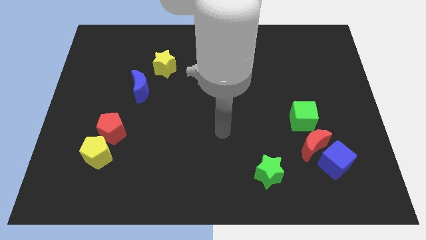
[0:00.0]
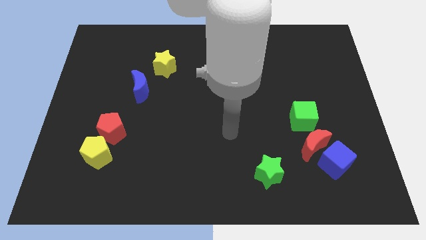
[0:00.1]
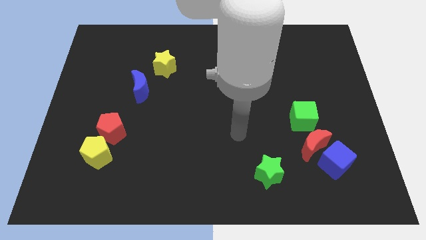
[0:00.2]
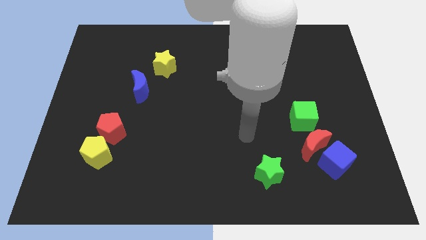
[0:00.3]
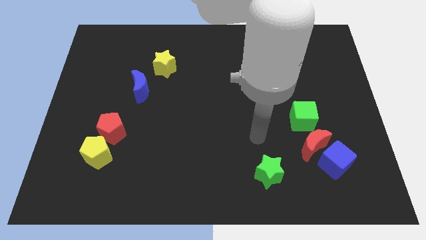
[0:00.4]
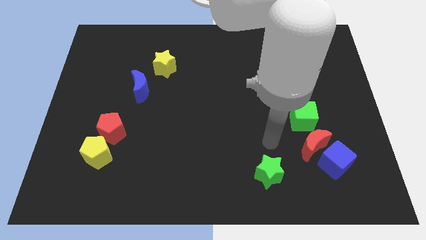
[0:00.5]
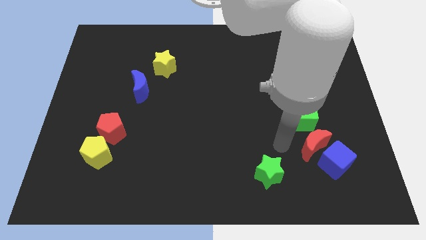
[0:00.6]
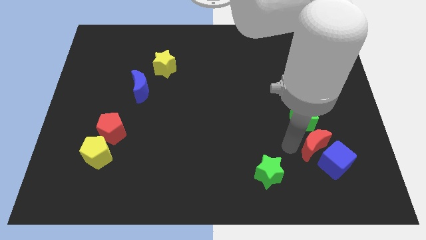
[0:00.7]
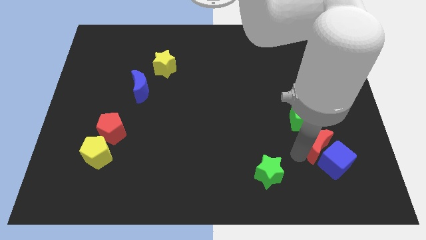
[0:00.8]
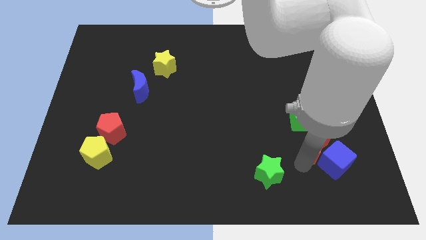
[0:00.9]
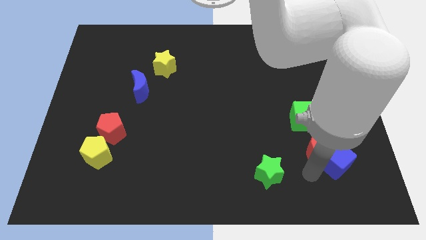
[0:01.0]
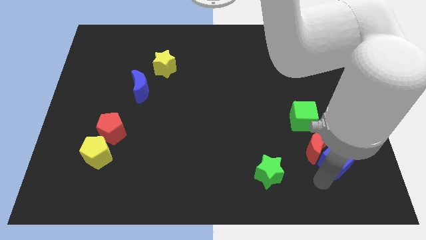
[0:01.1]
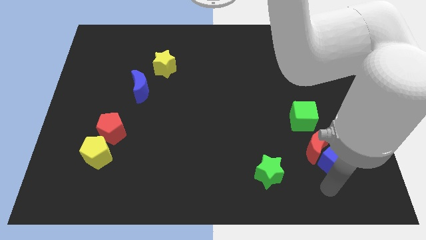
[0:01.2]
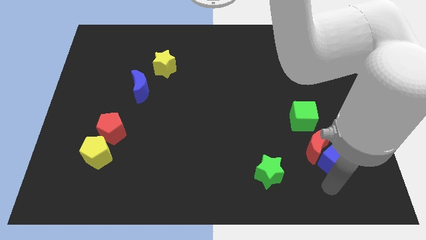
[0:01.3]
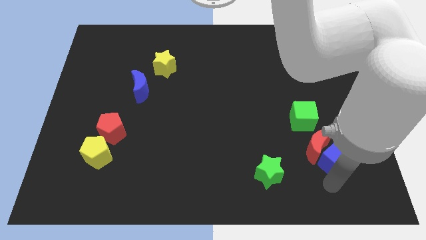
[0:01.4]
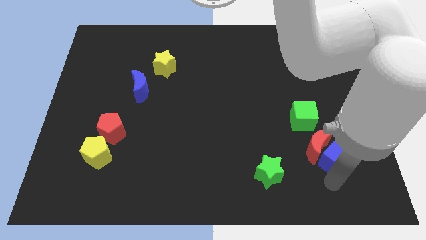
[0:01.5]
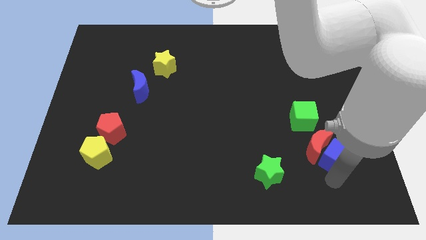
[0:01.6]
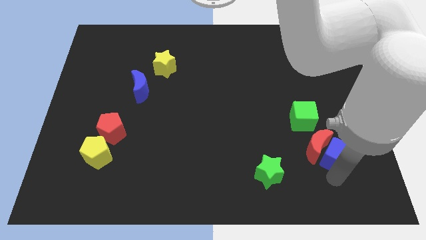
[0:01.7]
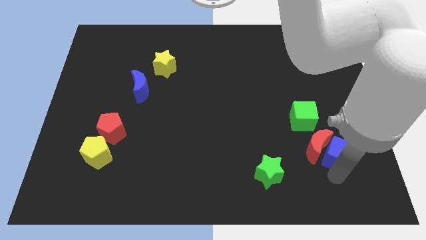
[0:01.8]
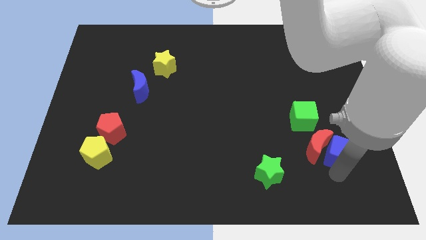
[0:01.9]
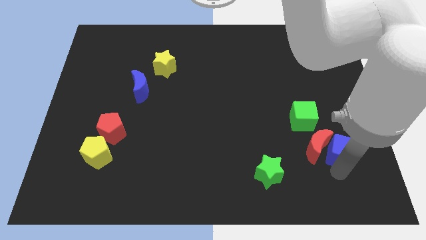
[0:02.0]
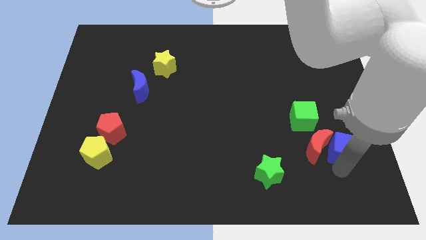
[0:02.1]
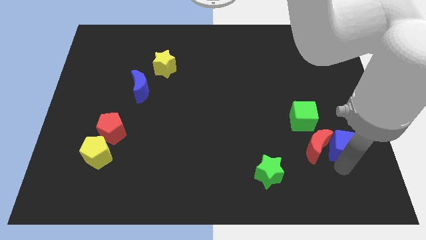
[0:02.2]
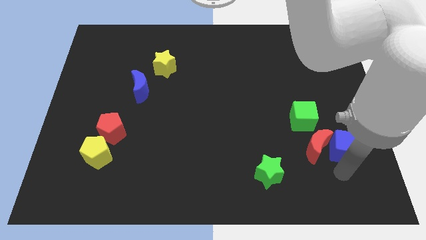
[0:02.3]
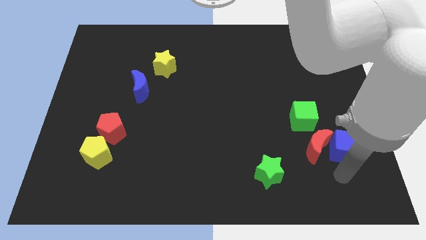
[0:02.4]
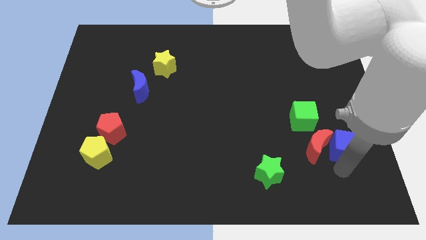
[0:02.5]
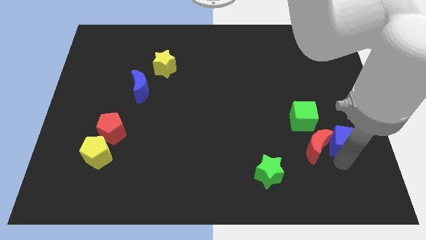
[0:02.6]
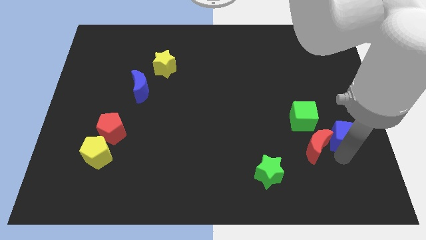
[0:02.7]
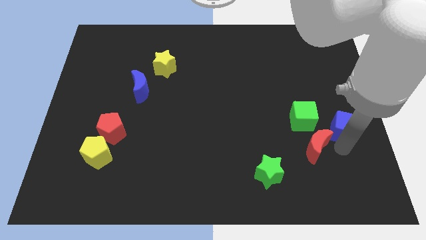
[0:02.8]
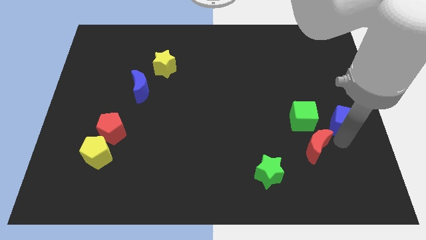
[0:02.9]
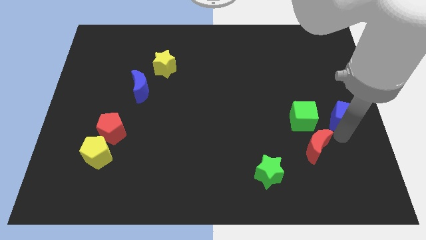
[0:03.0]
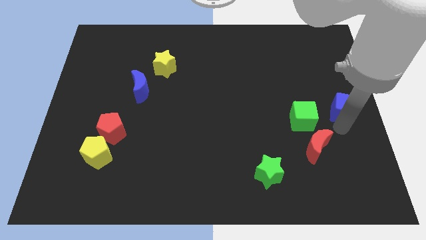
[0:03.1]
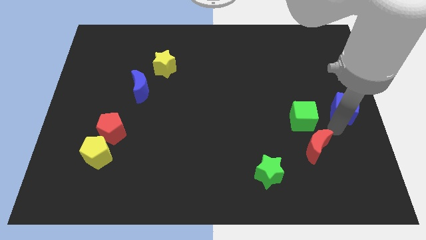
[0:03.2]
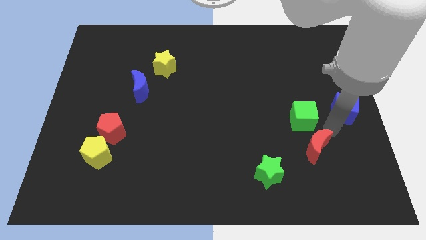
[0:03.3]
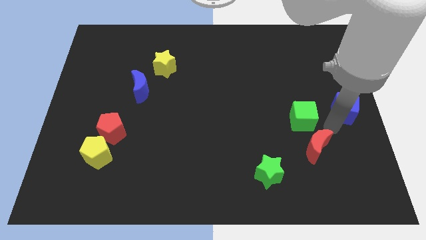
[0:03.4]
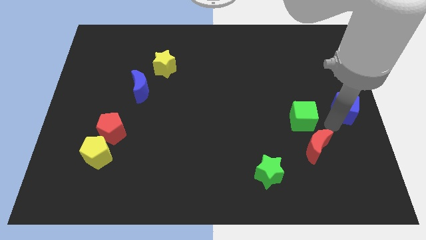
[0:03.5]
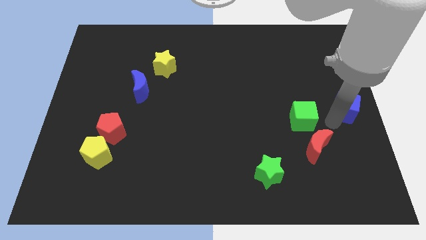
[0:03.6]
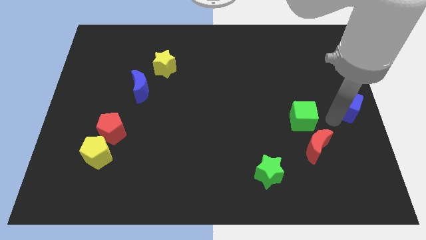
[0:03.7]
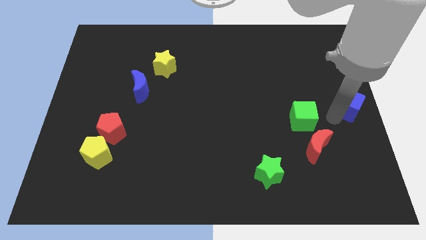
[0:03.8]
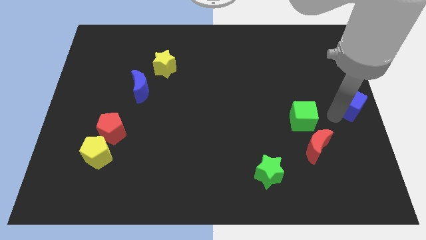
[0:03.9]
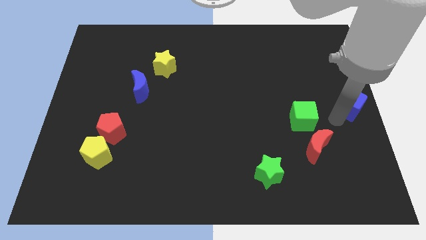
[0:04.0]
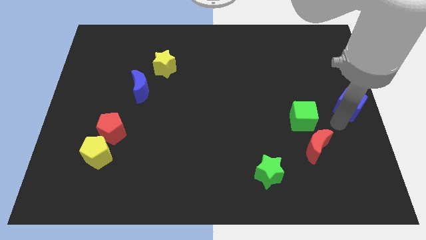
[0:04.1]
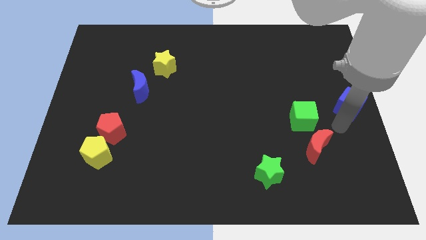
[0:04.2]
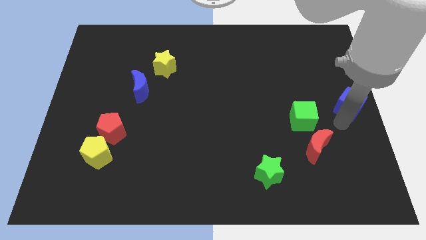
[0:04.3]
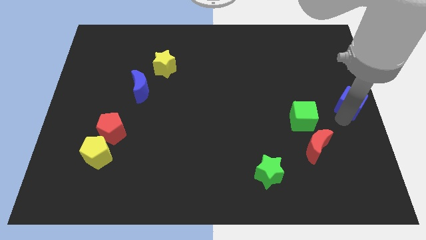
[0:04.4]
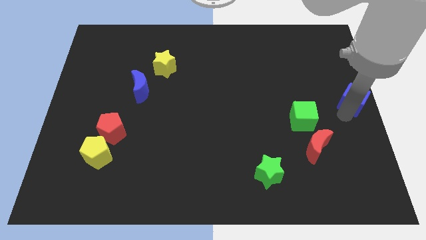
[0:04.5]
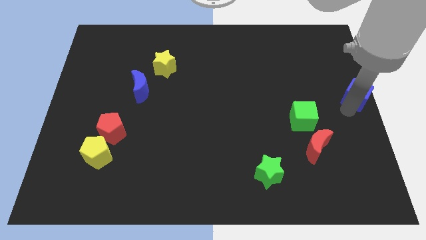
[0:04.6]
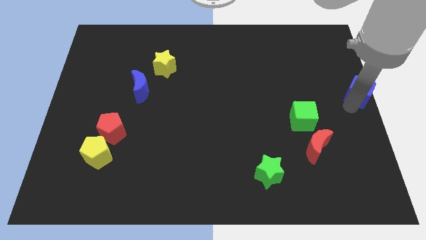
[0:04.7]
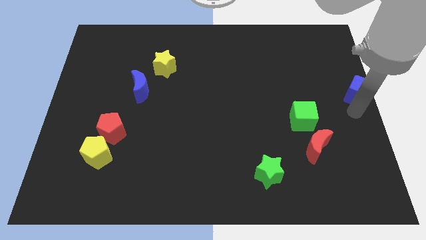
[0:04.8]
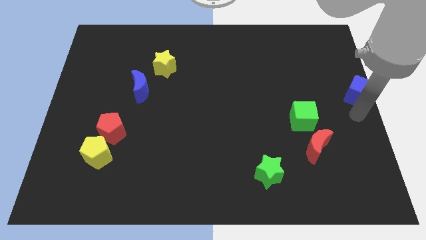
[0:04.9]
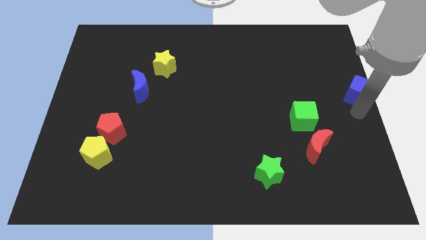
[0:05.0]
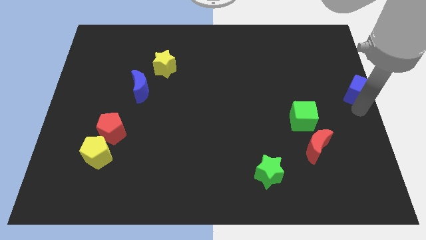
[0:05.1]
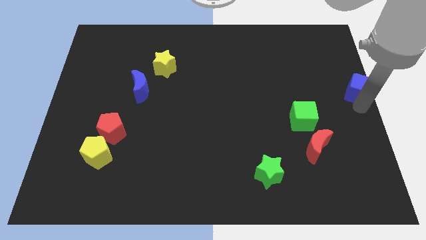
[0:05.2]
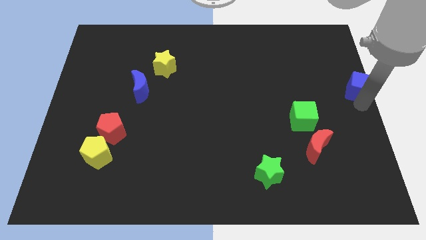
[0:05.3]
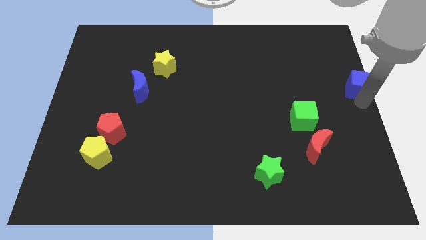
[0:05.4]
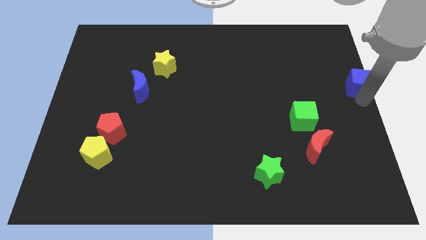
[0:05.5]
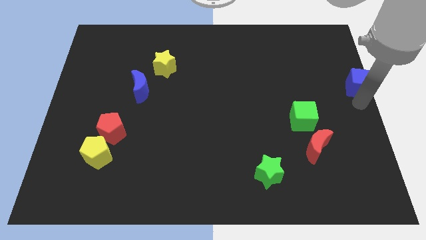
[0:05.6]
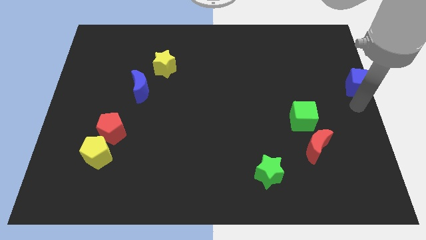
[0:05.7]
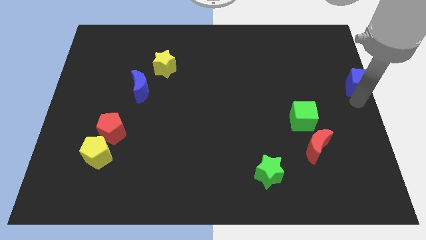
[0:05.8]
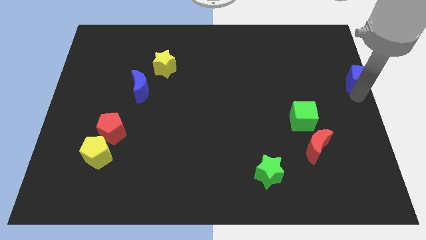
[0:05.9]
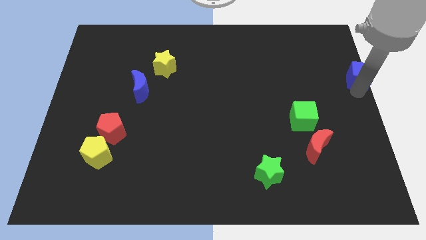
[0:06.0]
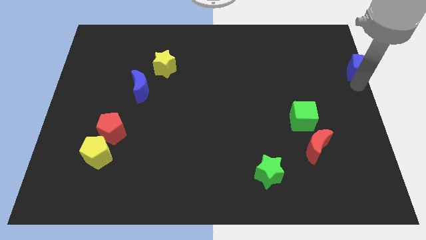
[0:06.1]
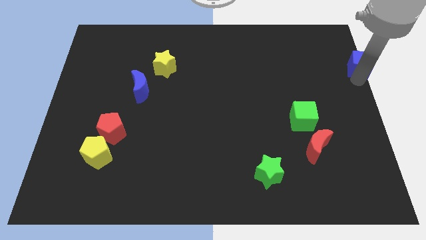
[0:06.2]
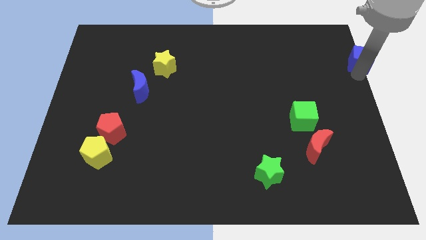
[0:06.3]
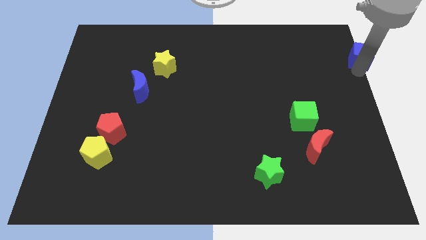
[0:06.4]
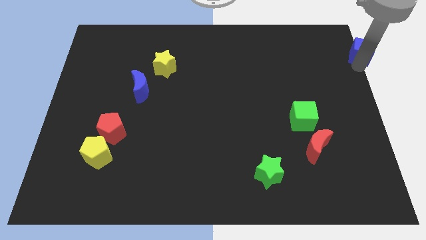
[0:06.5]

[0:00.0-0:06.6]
slide the blue cube to the top right corner
